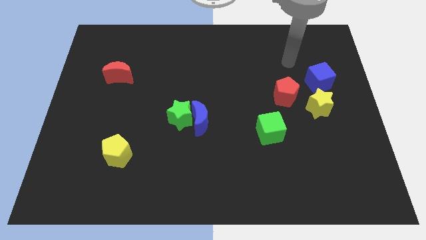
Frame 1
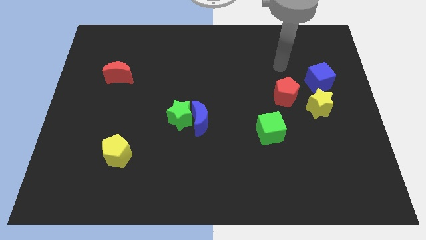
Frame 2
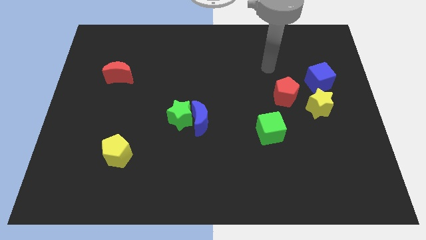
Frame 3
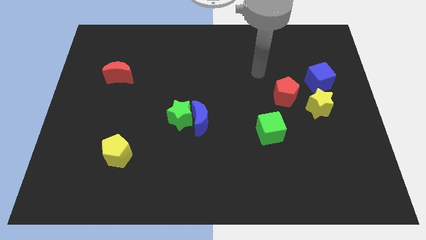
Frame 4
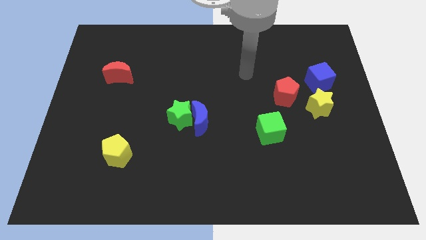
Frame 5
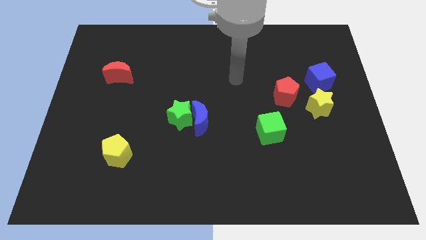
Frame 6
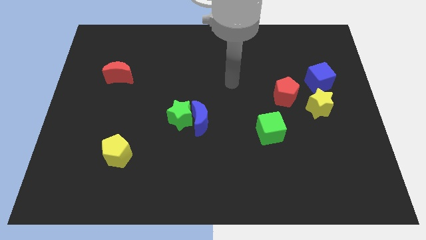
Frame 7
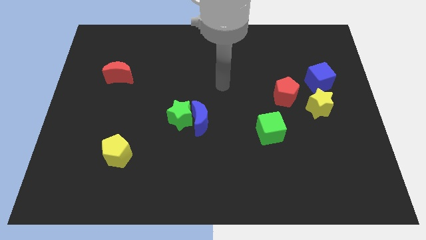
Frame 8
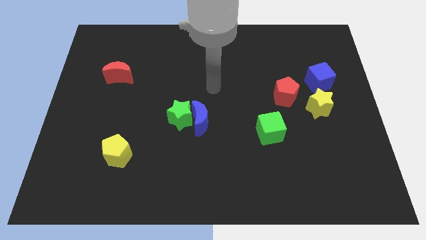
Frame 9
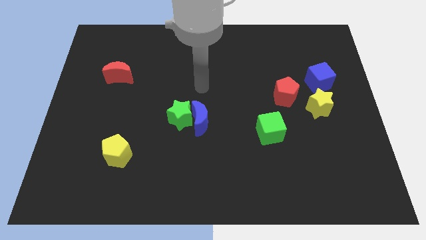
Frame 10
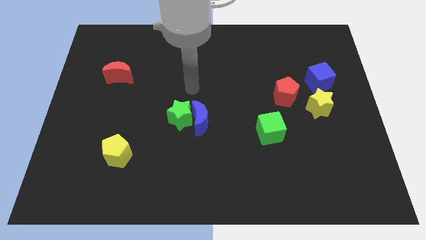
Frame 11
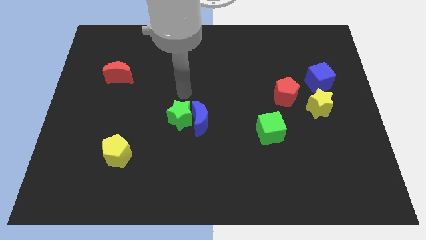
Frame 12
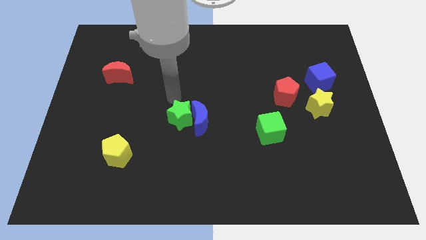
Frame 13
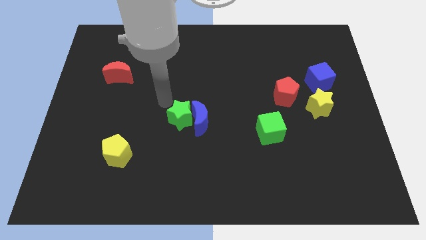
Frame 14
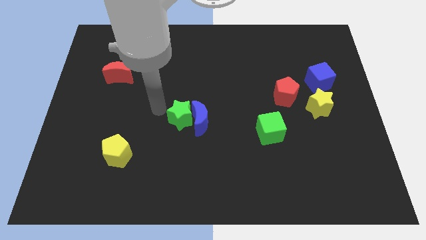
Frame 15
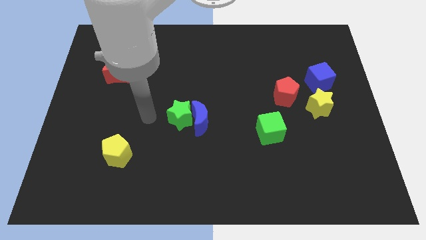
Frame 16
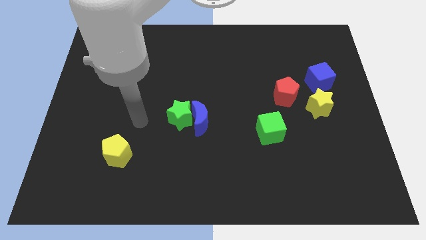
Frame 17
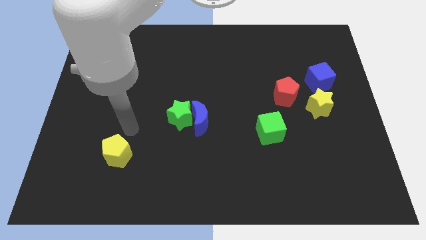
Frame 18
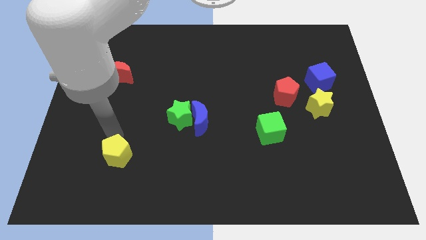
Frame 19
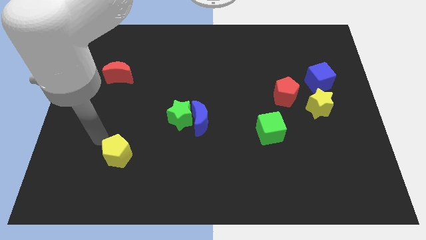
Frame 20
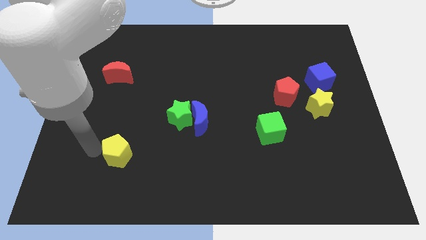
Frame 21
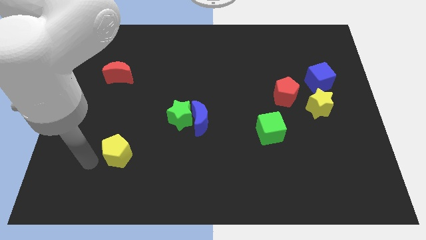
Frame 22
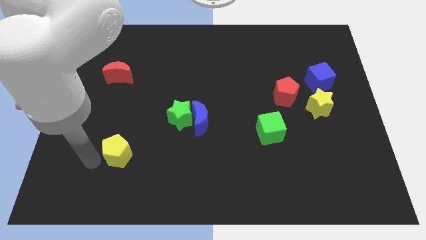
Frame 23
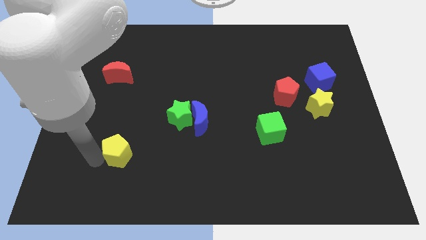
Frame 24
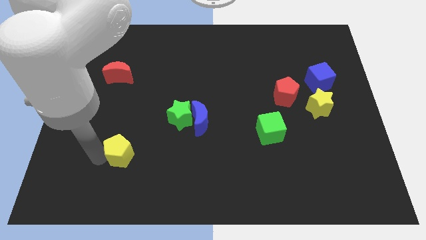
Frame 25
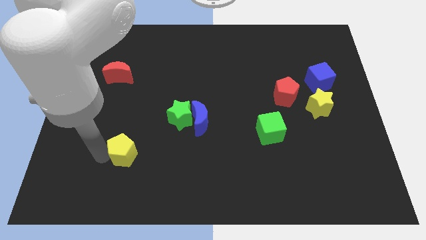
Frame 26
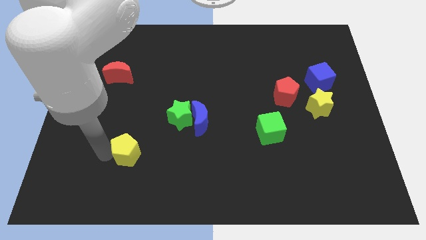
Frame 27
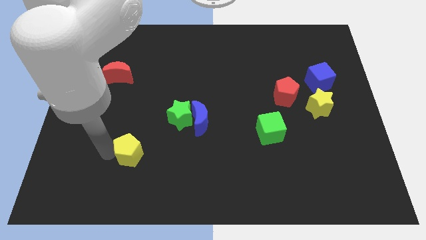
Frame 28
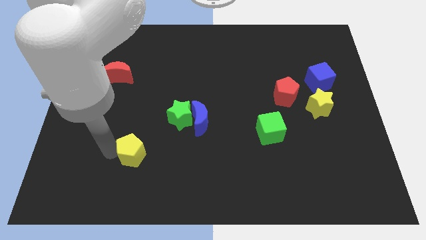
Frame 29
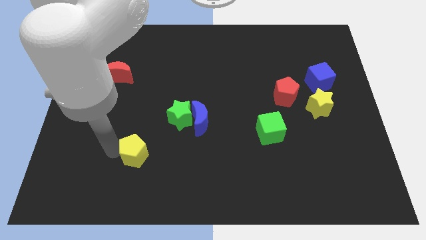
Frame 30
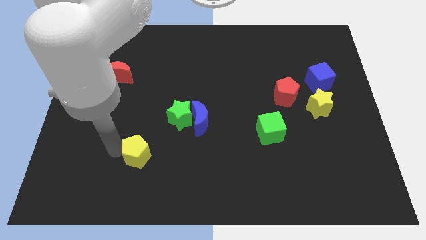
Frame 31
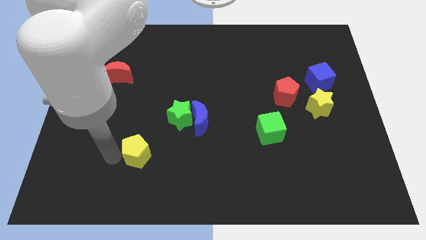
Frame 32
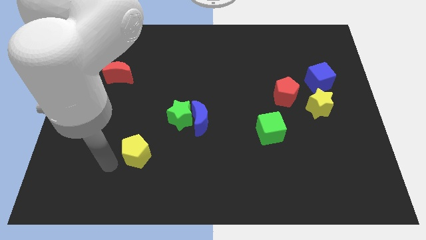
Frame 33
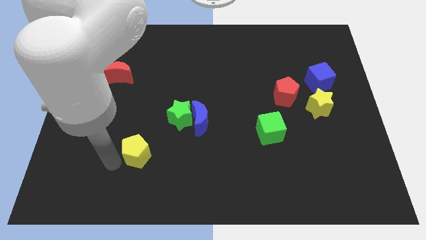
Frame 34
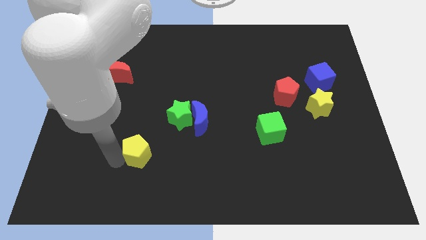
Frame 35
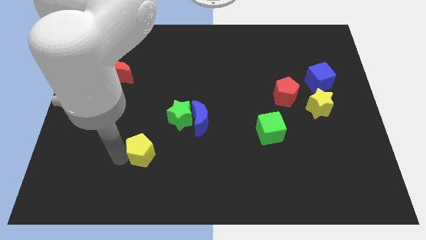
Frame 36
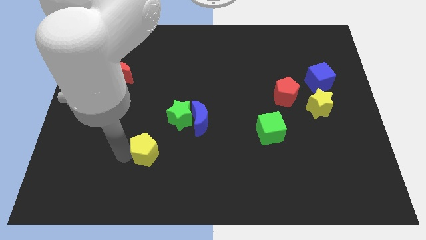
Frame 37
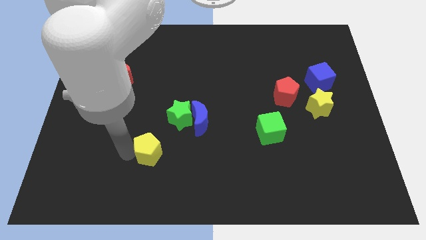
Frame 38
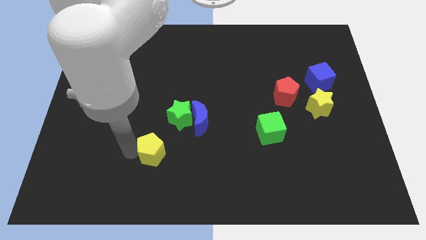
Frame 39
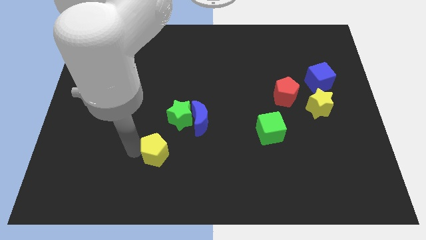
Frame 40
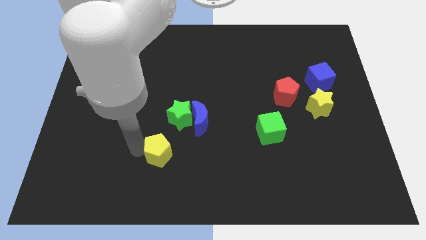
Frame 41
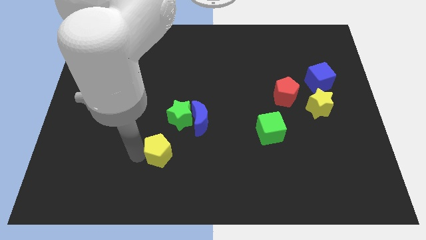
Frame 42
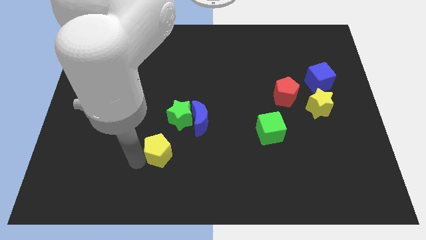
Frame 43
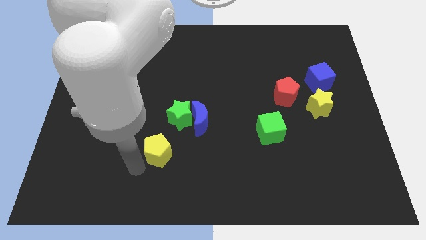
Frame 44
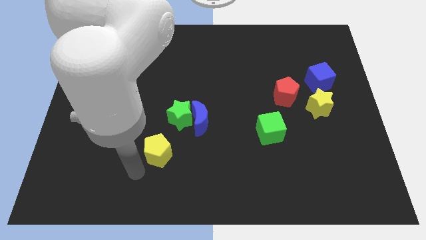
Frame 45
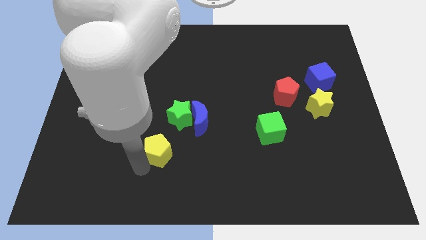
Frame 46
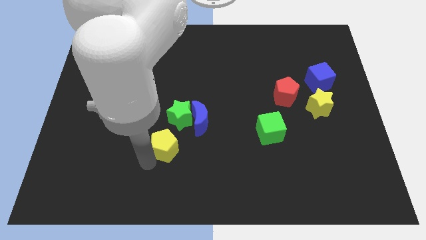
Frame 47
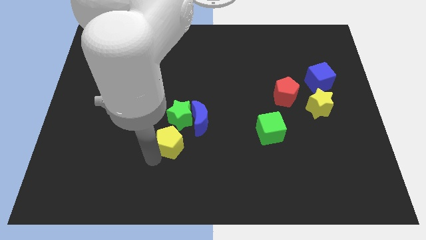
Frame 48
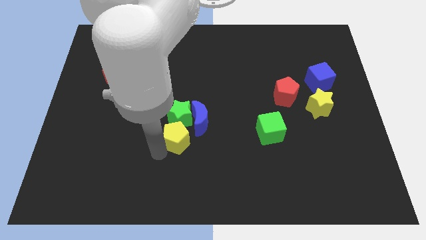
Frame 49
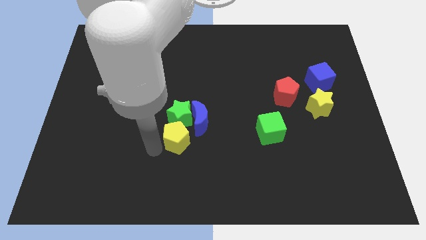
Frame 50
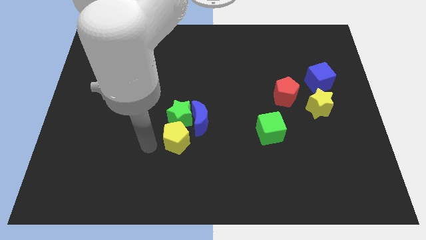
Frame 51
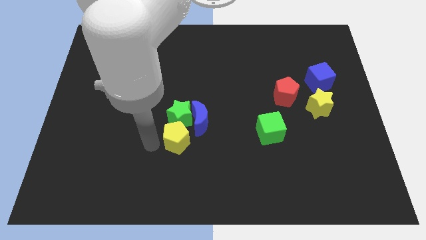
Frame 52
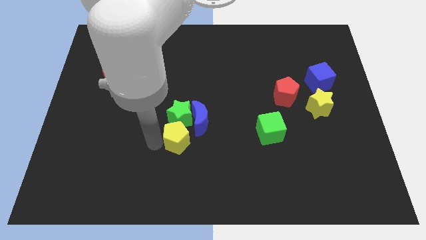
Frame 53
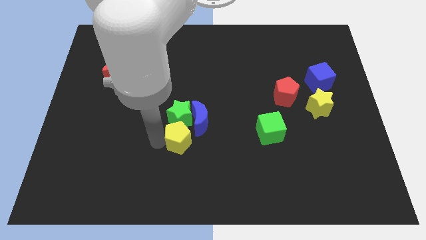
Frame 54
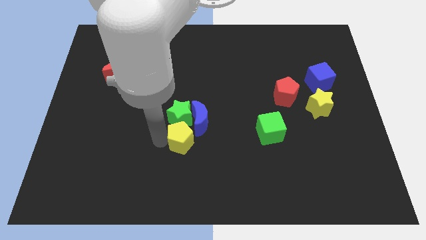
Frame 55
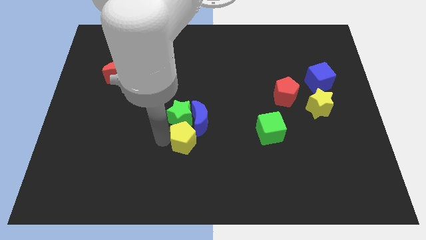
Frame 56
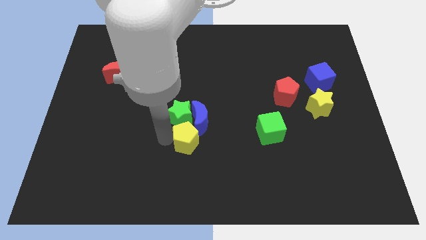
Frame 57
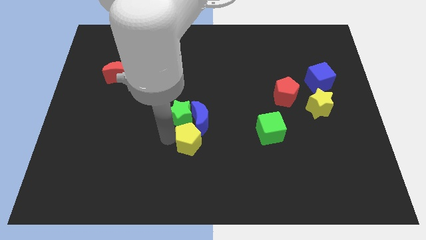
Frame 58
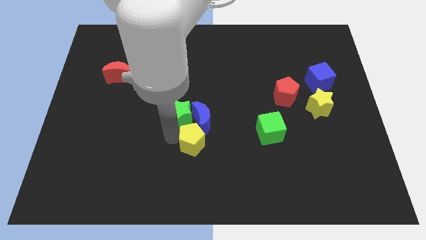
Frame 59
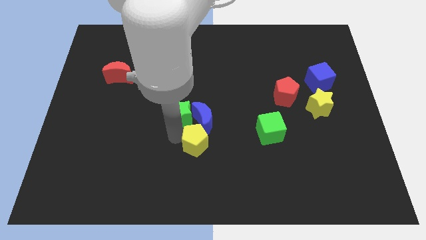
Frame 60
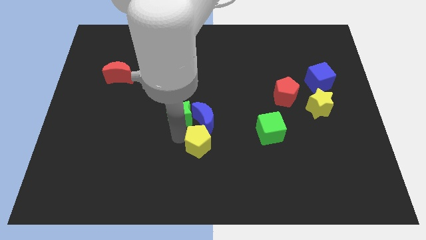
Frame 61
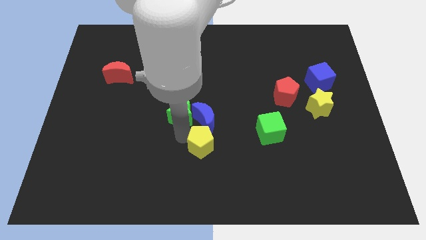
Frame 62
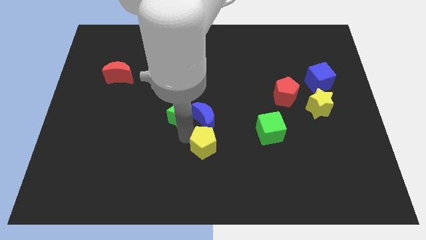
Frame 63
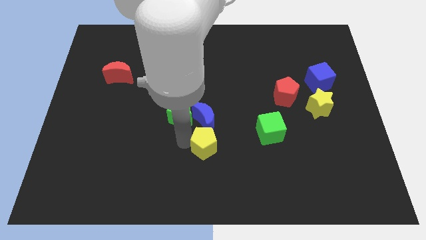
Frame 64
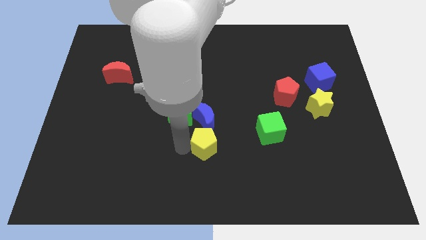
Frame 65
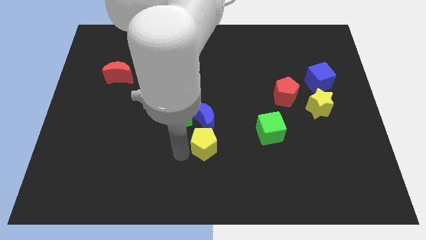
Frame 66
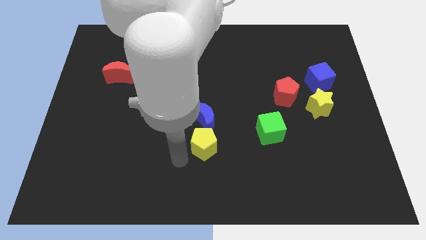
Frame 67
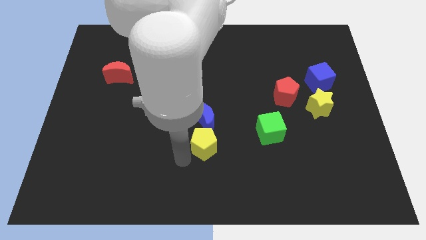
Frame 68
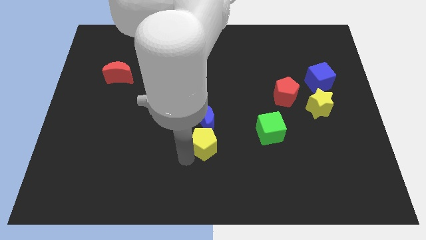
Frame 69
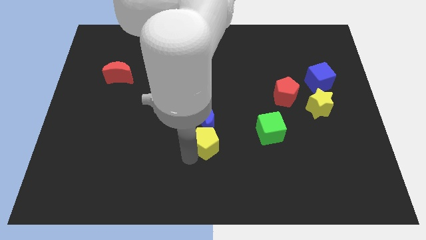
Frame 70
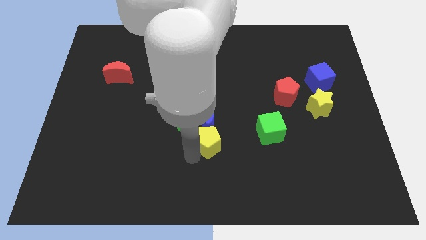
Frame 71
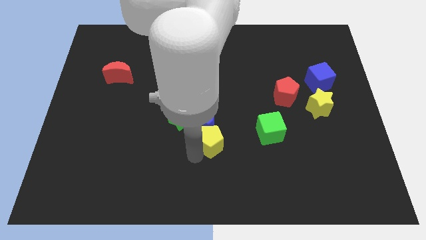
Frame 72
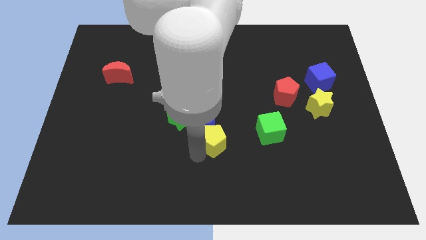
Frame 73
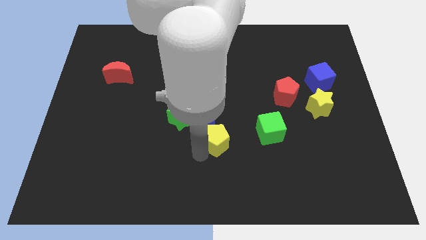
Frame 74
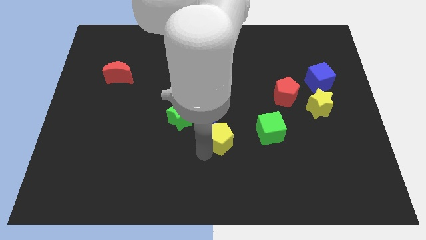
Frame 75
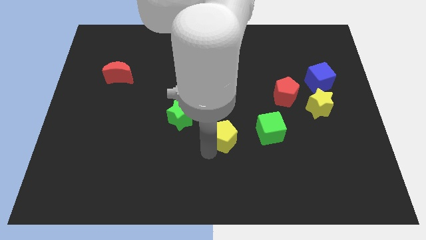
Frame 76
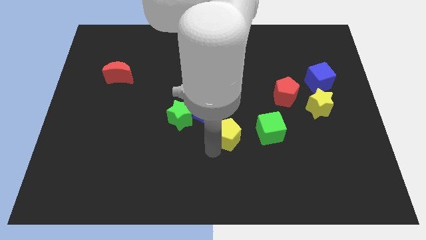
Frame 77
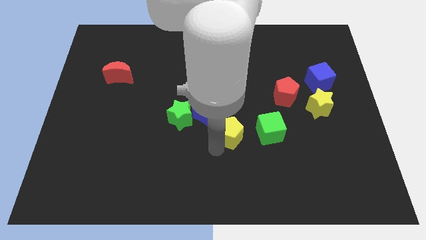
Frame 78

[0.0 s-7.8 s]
push the yellow pentagon to the right of the blue moon
